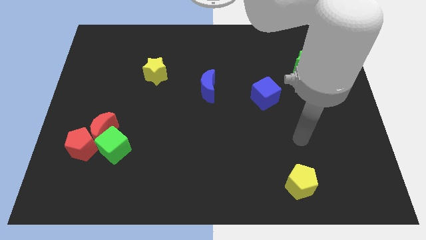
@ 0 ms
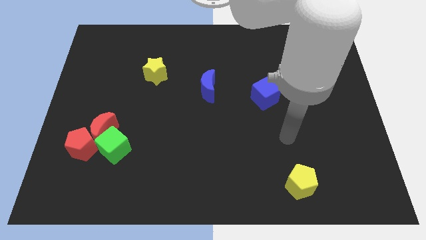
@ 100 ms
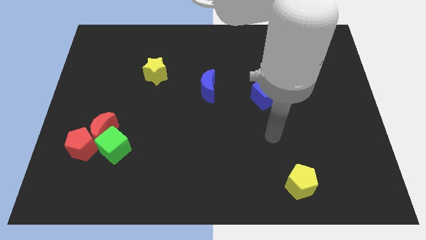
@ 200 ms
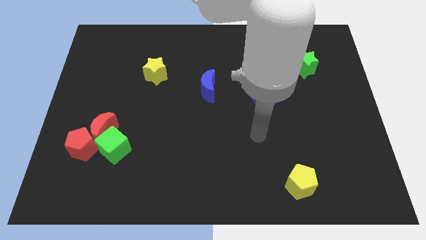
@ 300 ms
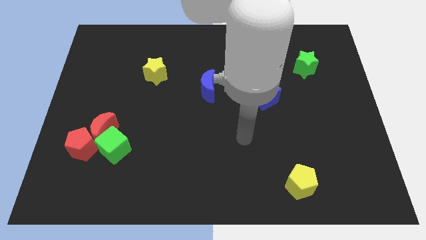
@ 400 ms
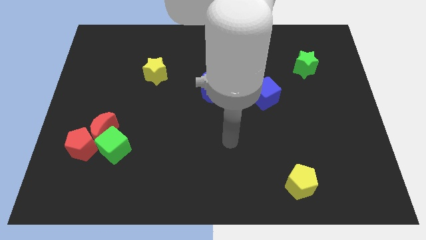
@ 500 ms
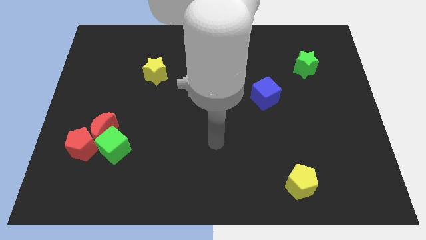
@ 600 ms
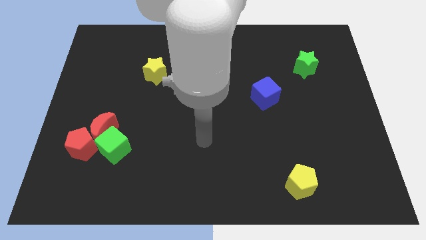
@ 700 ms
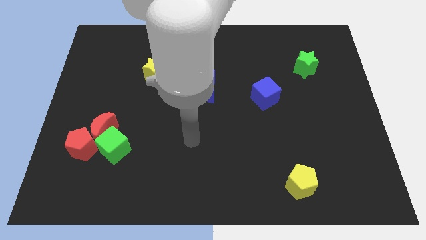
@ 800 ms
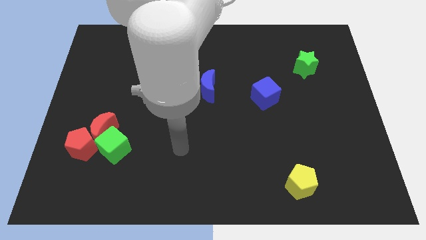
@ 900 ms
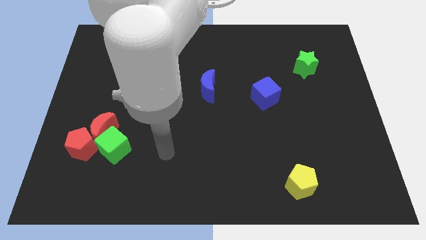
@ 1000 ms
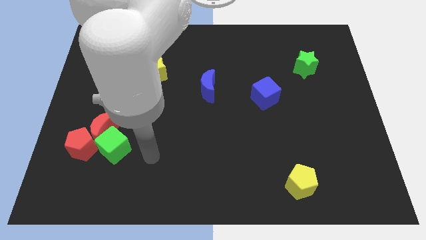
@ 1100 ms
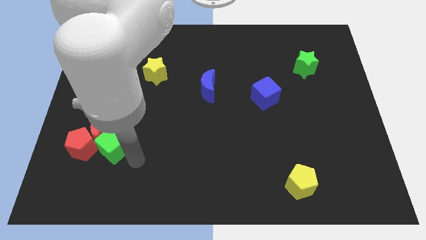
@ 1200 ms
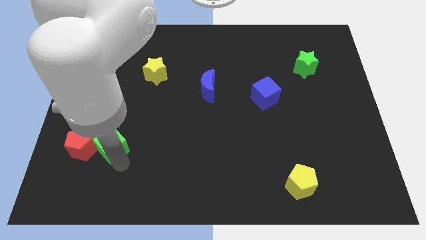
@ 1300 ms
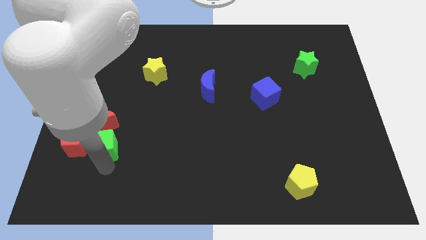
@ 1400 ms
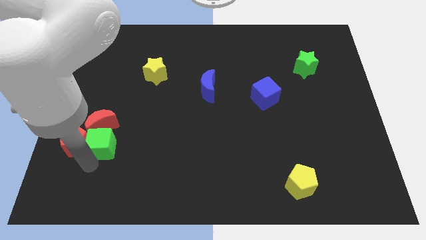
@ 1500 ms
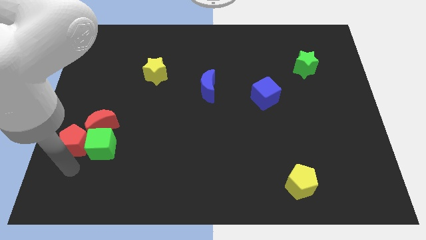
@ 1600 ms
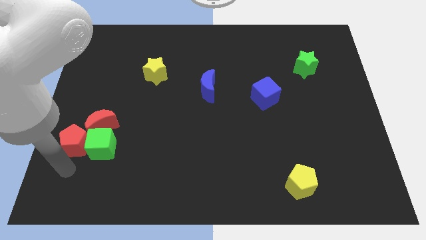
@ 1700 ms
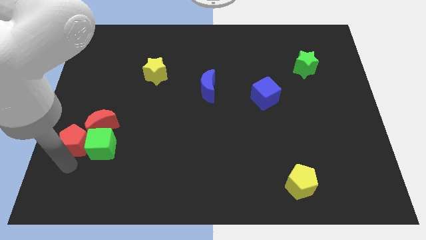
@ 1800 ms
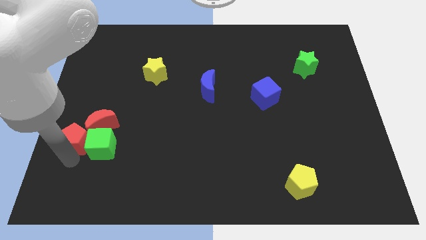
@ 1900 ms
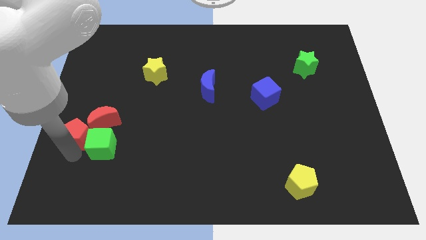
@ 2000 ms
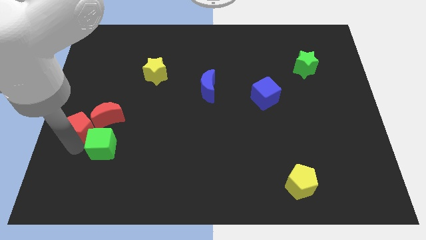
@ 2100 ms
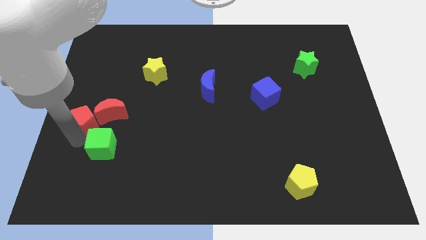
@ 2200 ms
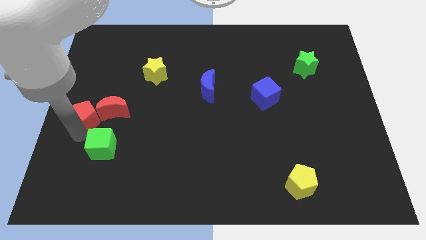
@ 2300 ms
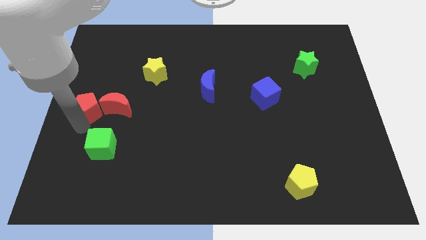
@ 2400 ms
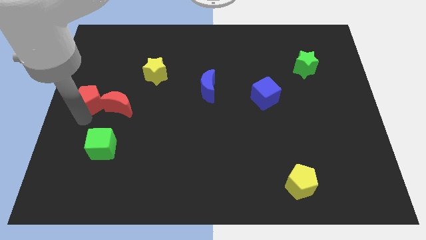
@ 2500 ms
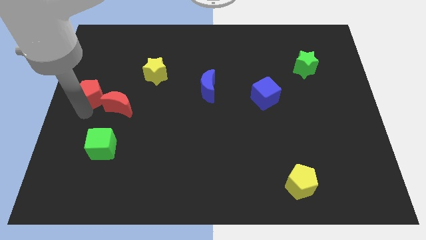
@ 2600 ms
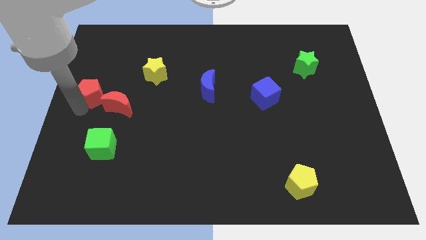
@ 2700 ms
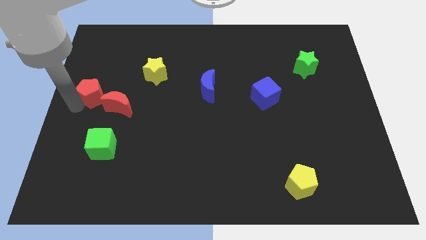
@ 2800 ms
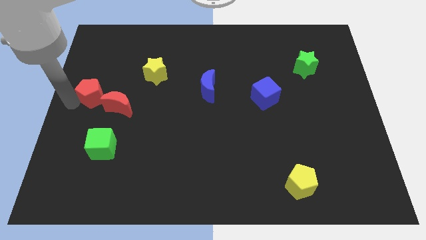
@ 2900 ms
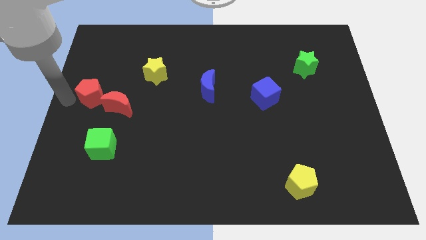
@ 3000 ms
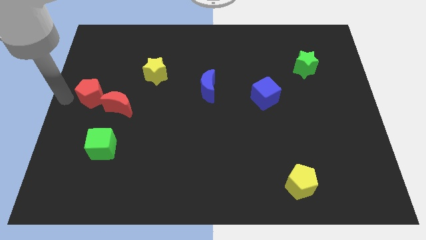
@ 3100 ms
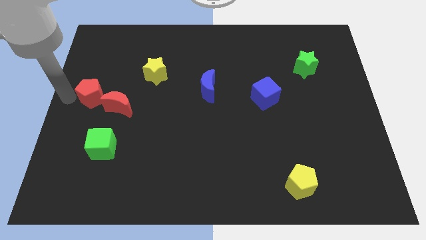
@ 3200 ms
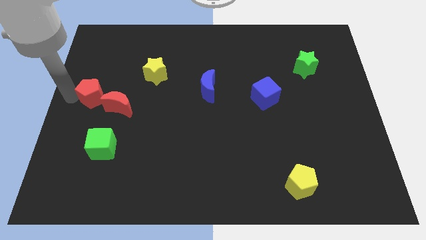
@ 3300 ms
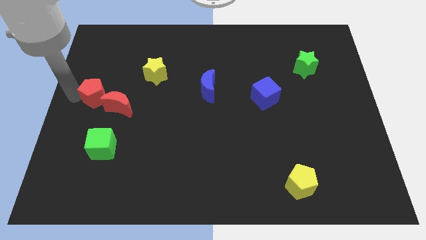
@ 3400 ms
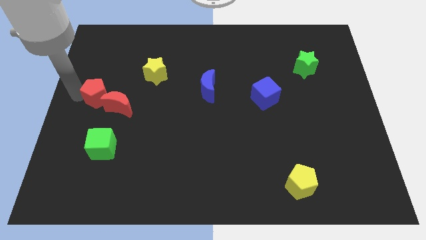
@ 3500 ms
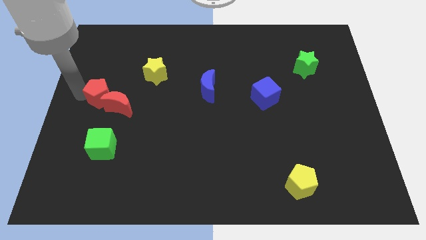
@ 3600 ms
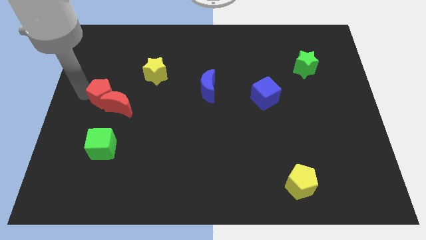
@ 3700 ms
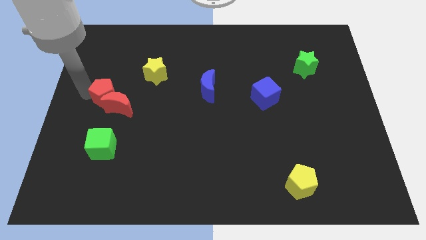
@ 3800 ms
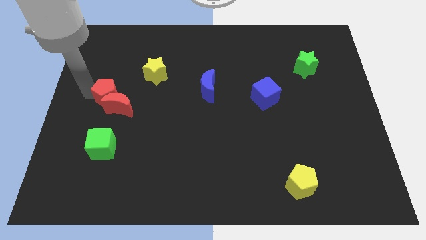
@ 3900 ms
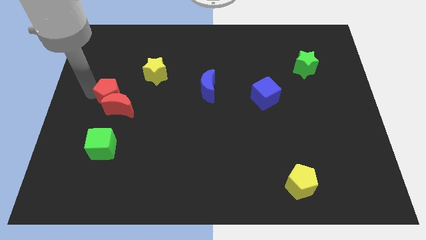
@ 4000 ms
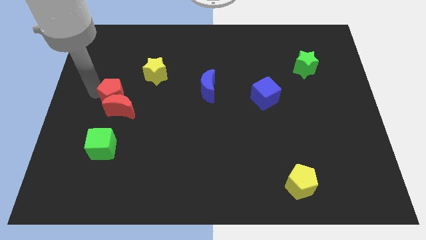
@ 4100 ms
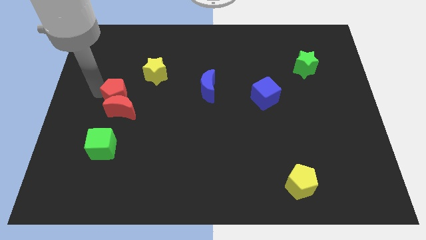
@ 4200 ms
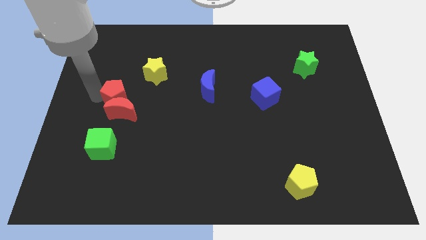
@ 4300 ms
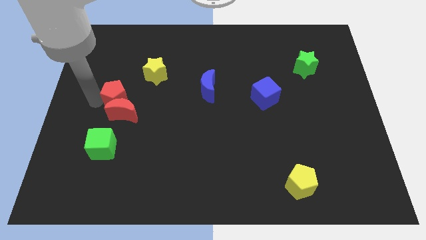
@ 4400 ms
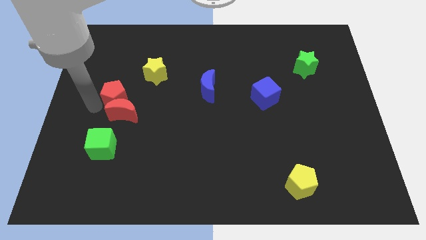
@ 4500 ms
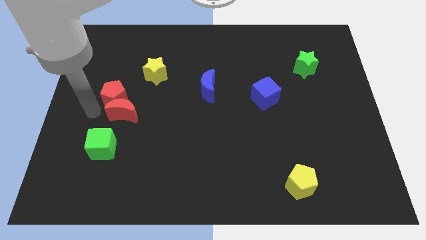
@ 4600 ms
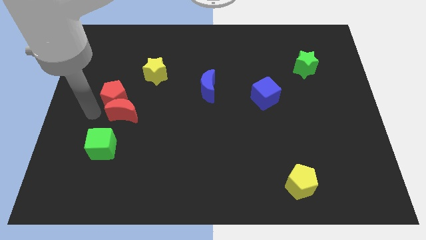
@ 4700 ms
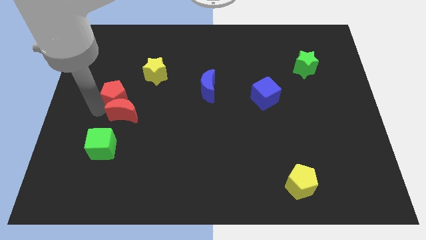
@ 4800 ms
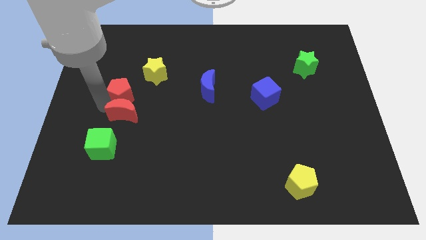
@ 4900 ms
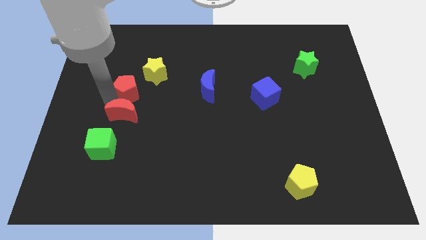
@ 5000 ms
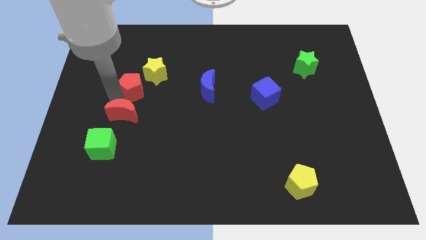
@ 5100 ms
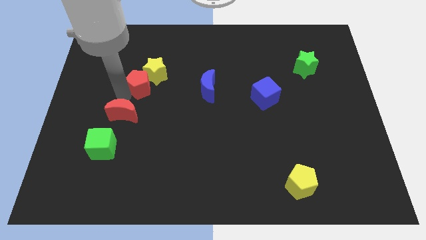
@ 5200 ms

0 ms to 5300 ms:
put the red pentagon close to the yellow star

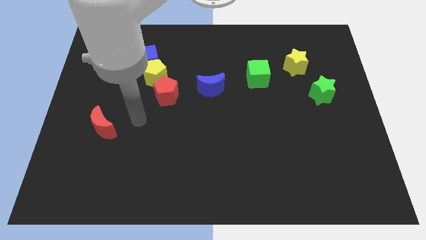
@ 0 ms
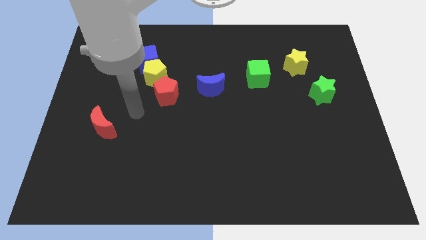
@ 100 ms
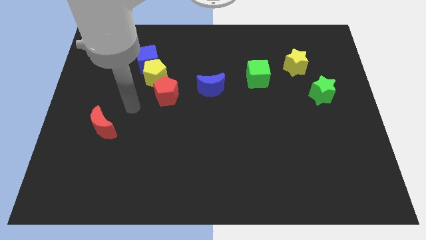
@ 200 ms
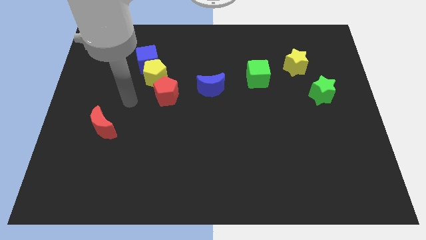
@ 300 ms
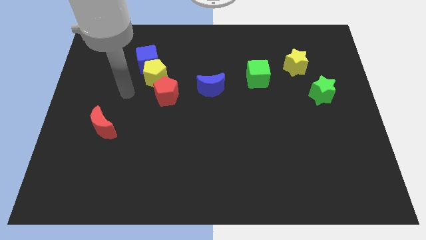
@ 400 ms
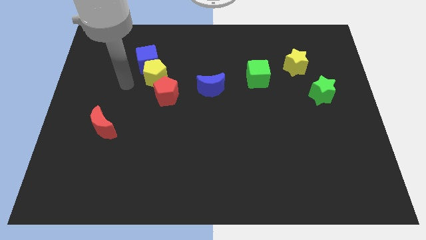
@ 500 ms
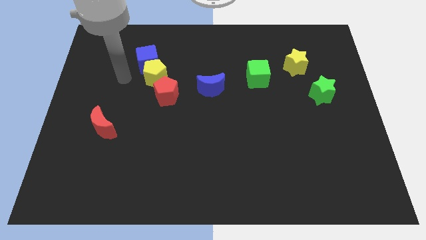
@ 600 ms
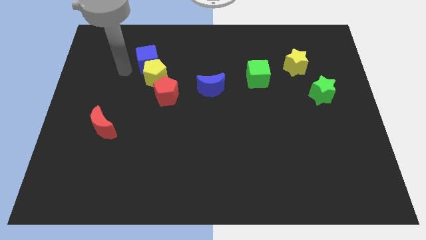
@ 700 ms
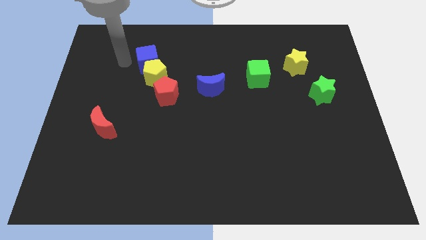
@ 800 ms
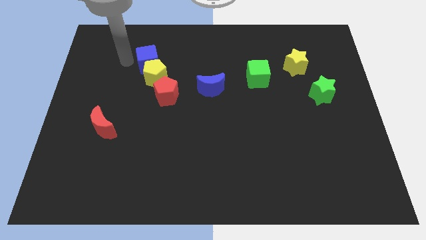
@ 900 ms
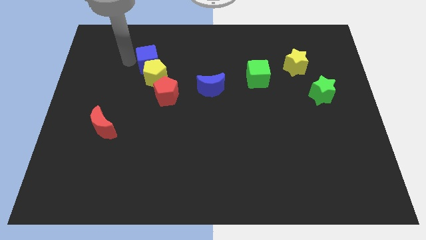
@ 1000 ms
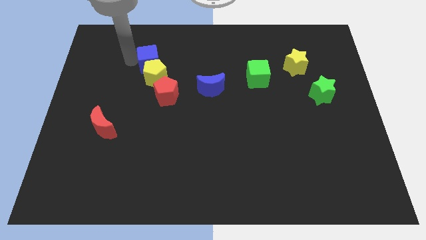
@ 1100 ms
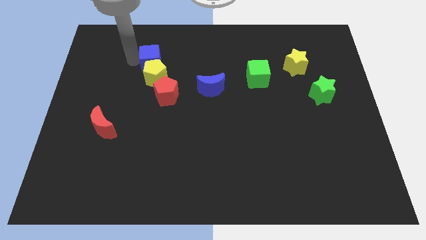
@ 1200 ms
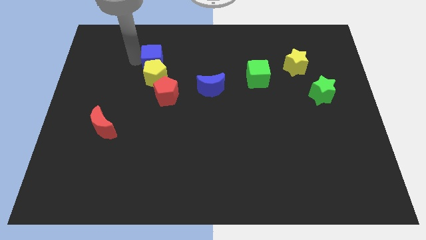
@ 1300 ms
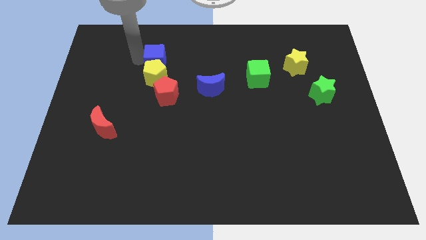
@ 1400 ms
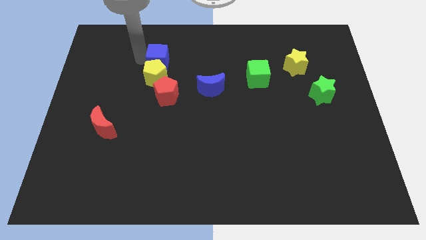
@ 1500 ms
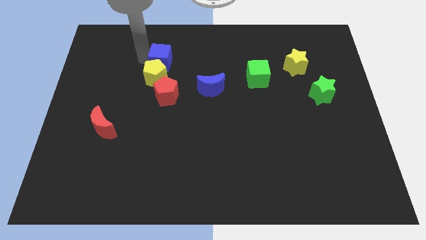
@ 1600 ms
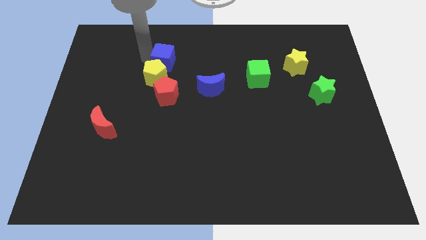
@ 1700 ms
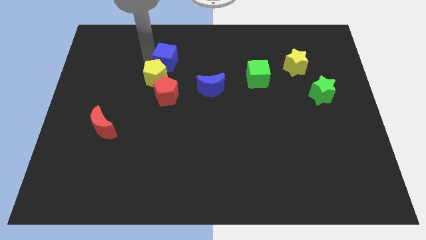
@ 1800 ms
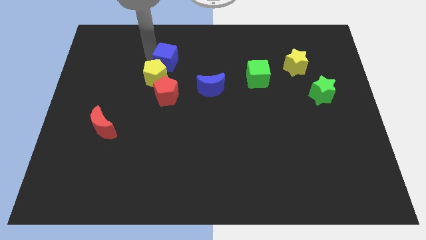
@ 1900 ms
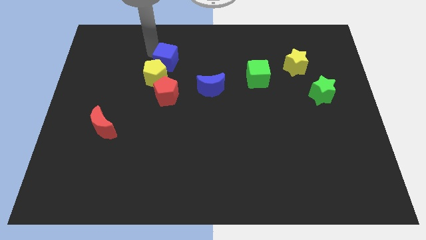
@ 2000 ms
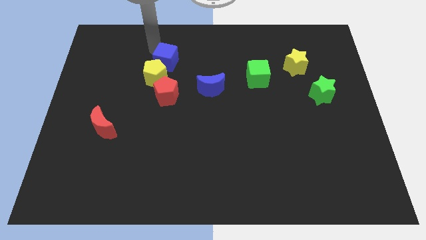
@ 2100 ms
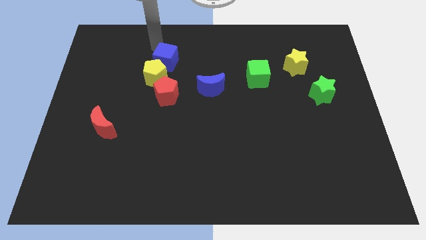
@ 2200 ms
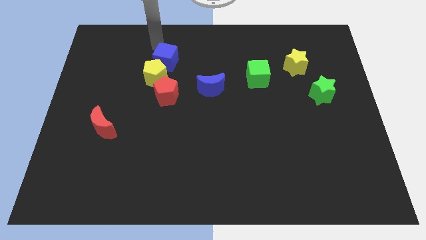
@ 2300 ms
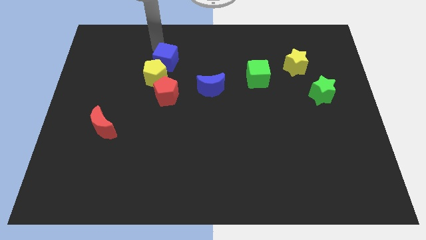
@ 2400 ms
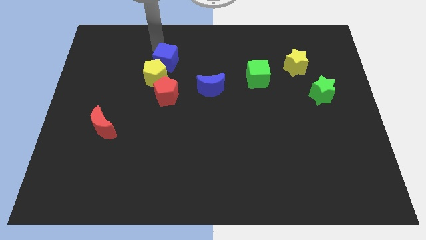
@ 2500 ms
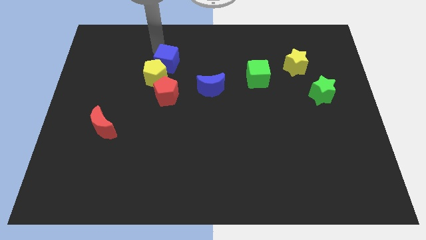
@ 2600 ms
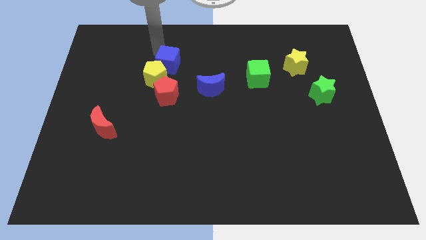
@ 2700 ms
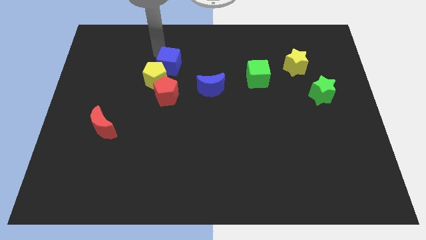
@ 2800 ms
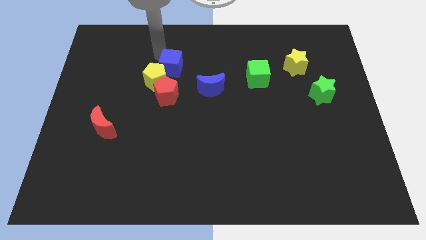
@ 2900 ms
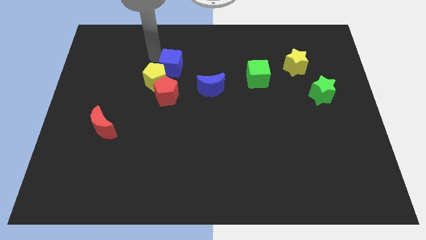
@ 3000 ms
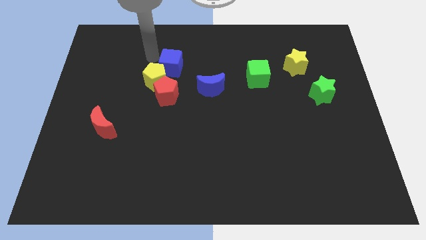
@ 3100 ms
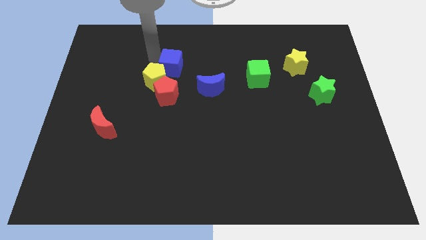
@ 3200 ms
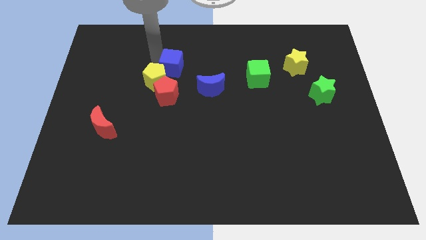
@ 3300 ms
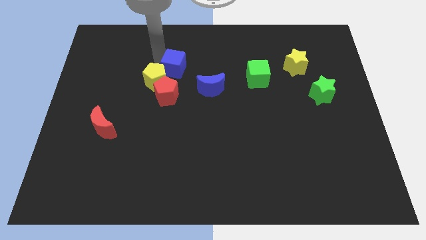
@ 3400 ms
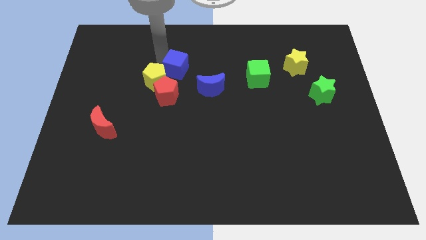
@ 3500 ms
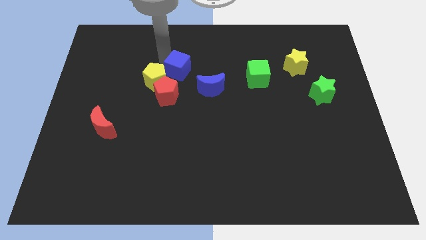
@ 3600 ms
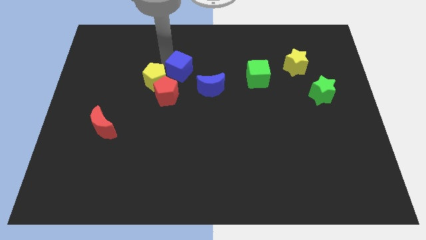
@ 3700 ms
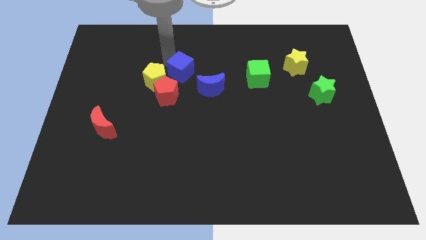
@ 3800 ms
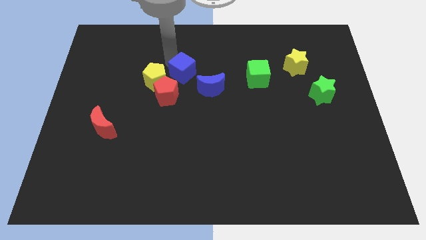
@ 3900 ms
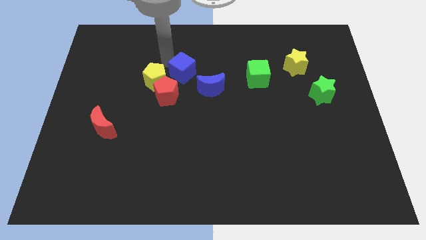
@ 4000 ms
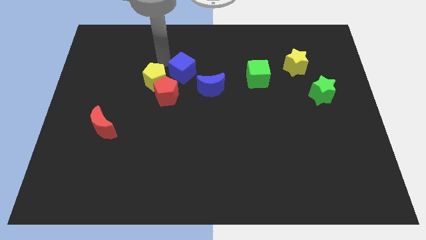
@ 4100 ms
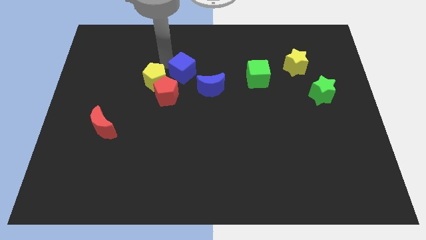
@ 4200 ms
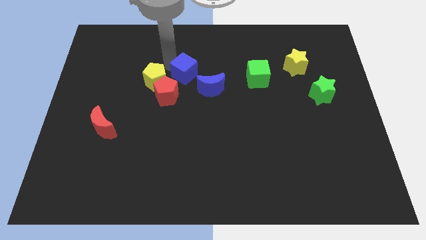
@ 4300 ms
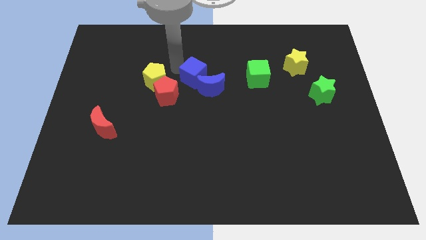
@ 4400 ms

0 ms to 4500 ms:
move the blue cube towards the blue moon
